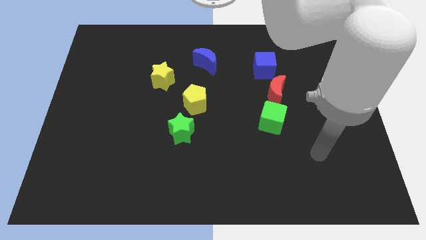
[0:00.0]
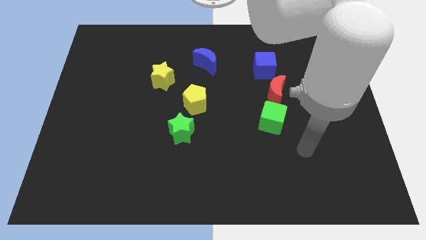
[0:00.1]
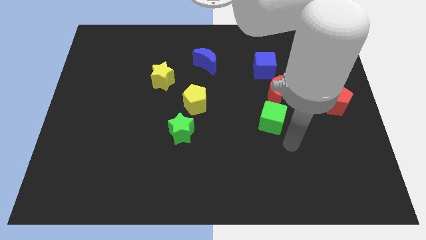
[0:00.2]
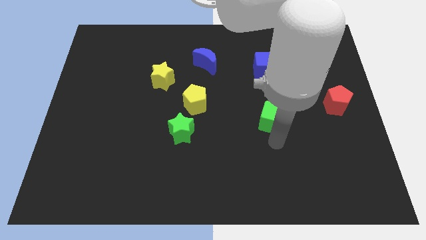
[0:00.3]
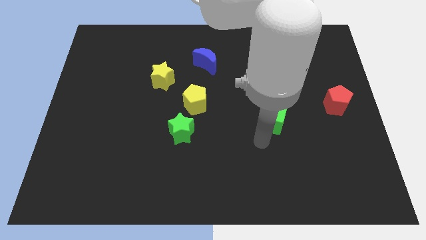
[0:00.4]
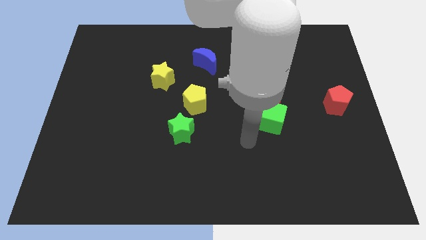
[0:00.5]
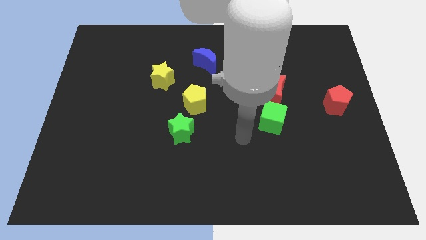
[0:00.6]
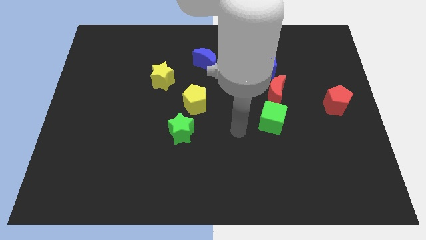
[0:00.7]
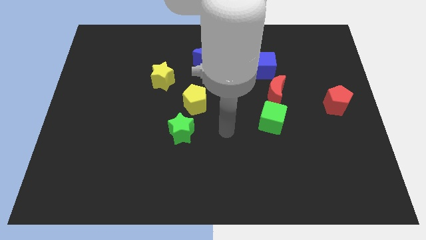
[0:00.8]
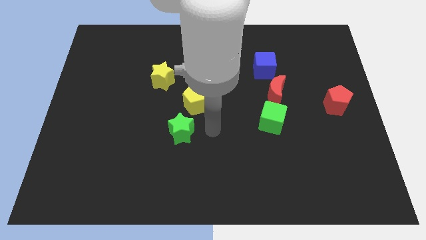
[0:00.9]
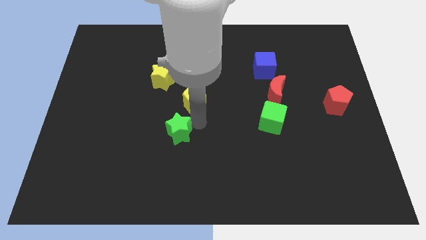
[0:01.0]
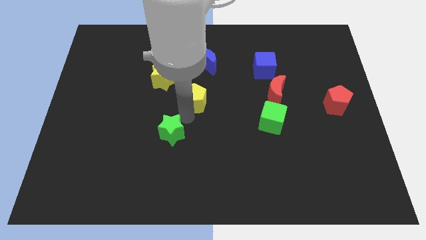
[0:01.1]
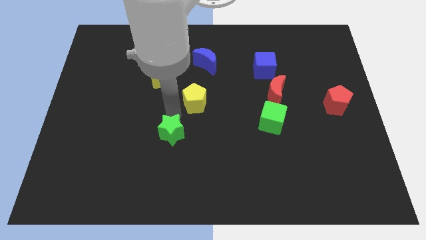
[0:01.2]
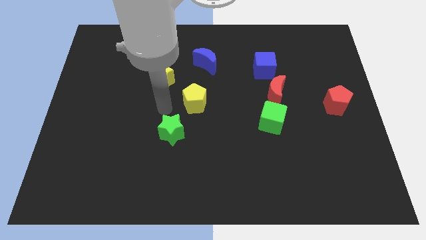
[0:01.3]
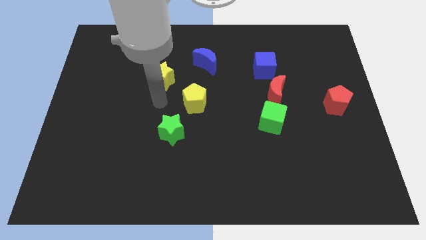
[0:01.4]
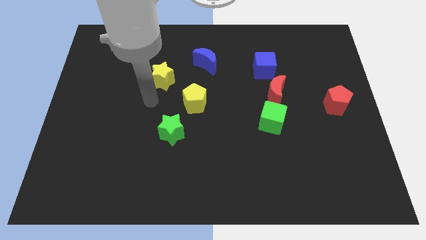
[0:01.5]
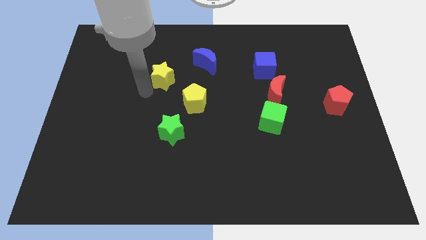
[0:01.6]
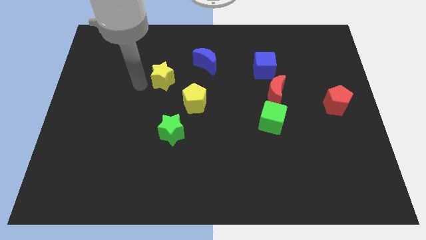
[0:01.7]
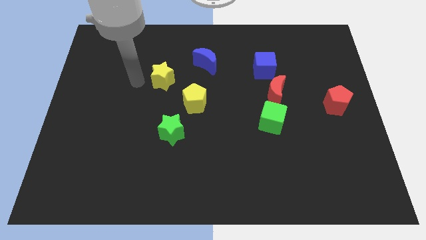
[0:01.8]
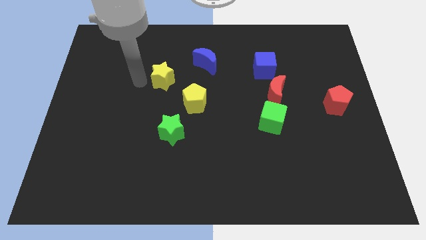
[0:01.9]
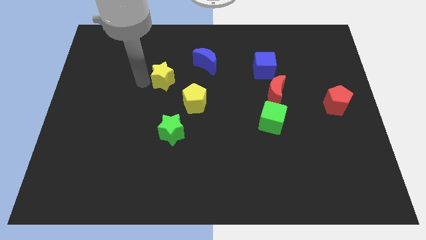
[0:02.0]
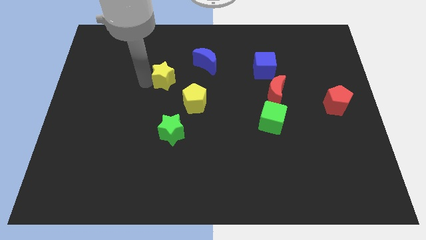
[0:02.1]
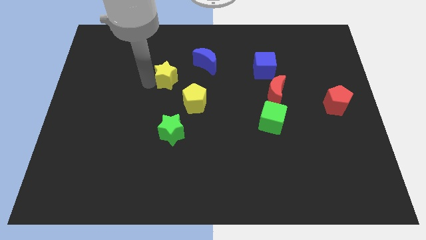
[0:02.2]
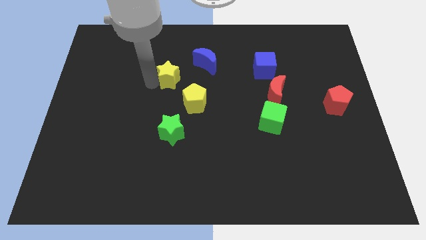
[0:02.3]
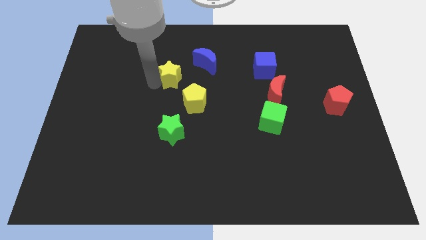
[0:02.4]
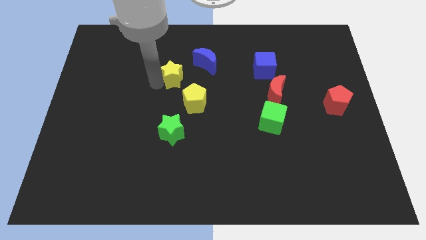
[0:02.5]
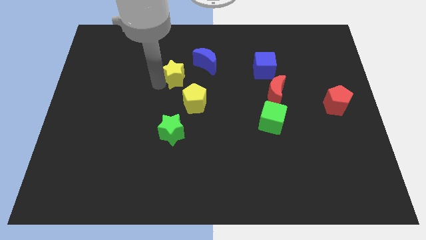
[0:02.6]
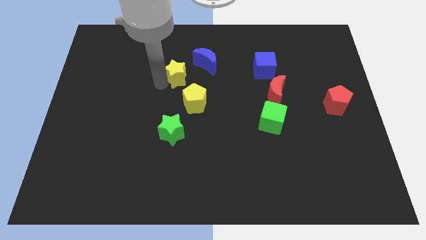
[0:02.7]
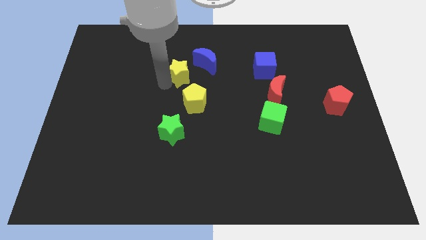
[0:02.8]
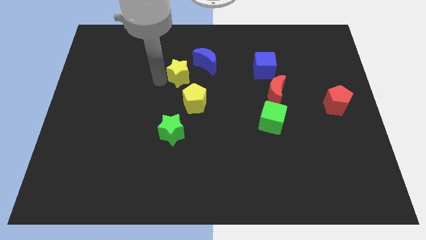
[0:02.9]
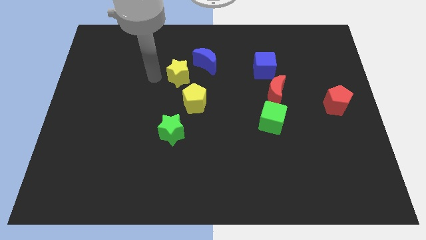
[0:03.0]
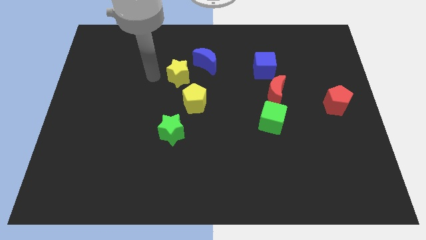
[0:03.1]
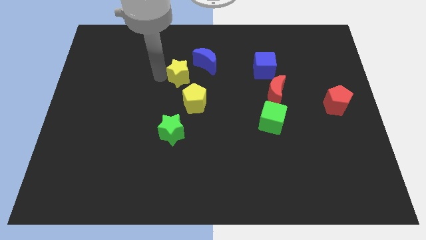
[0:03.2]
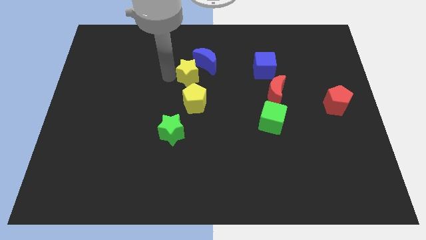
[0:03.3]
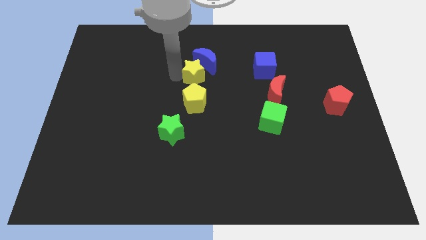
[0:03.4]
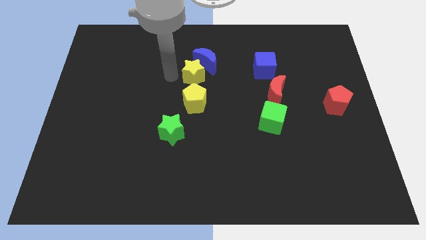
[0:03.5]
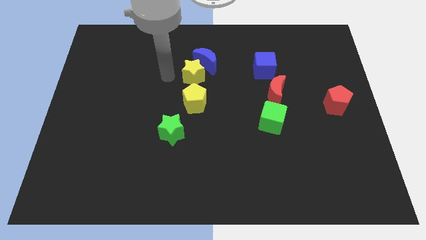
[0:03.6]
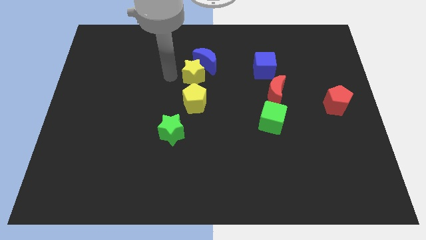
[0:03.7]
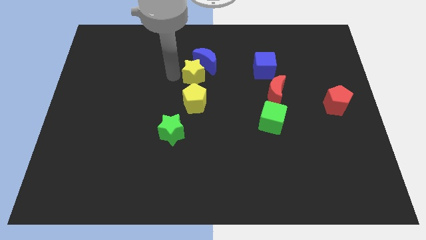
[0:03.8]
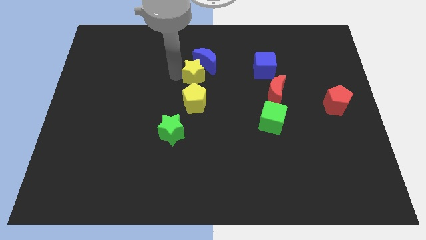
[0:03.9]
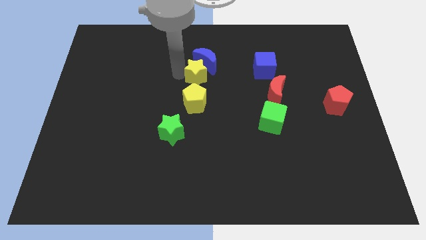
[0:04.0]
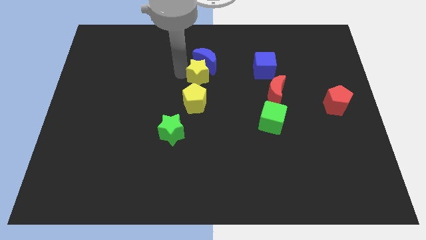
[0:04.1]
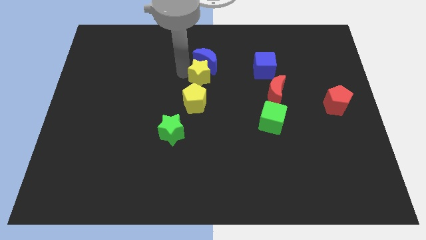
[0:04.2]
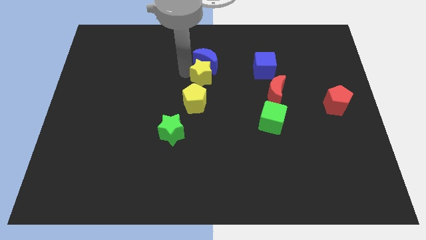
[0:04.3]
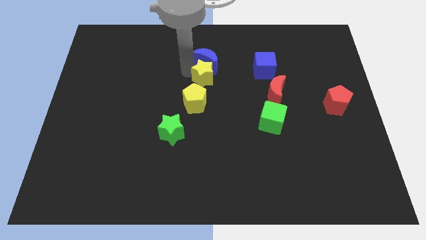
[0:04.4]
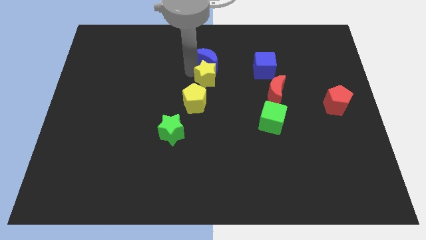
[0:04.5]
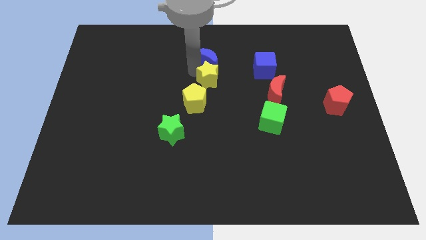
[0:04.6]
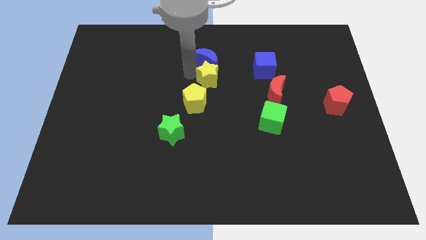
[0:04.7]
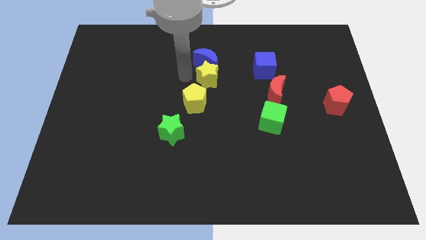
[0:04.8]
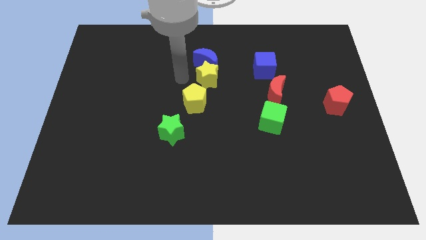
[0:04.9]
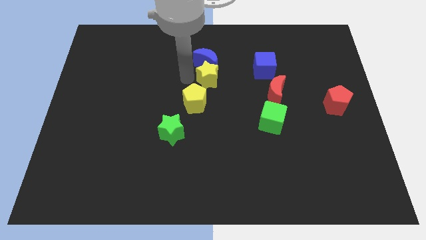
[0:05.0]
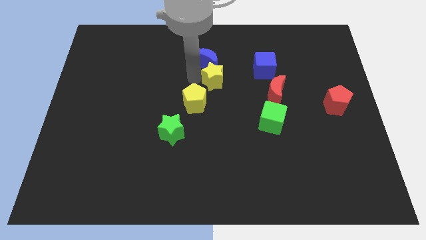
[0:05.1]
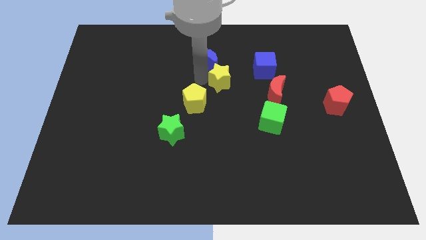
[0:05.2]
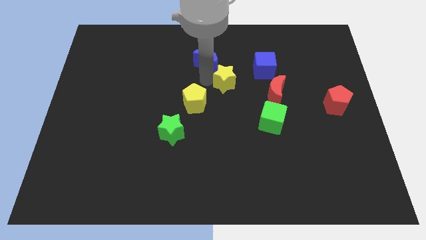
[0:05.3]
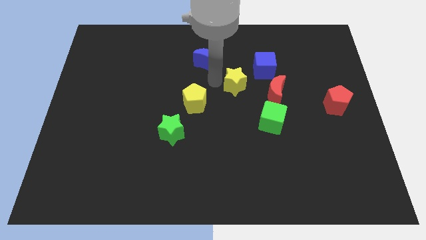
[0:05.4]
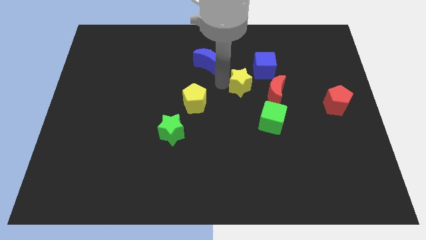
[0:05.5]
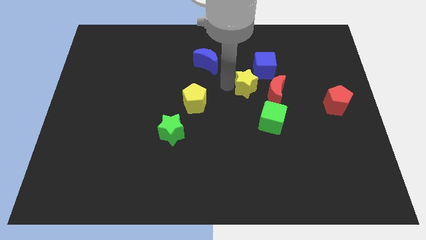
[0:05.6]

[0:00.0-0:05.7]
slide the yellow star to the right

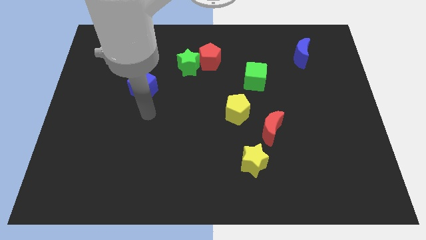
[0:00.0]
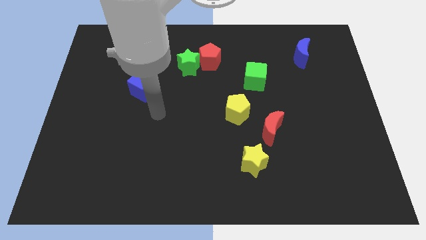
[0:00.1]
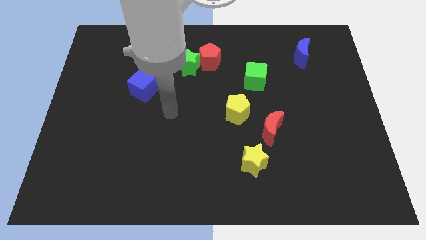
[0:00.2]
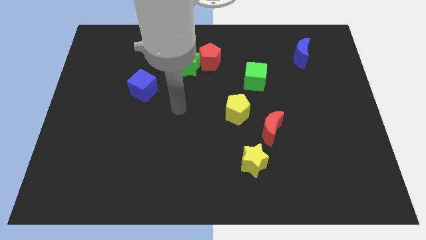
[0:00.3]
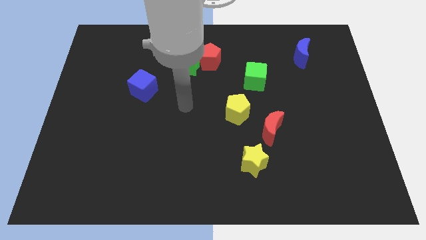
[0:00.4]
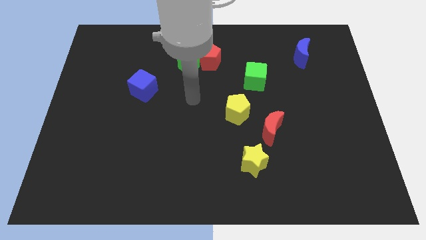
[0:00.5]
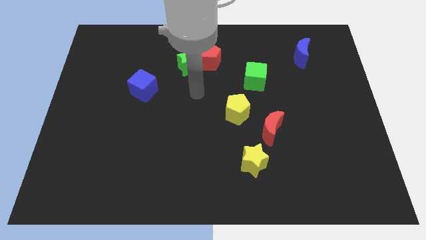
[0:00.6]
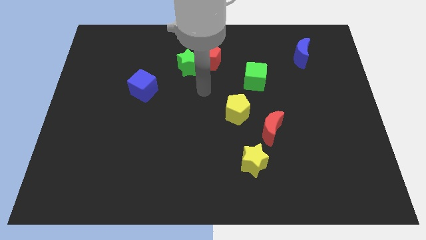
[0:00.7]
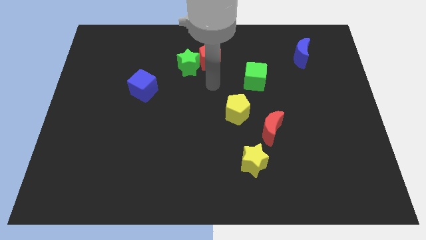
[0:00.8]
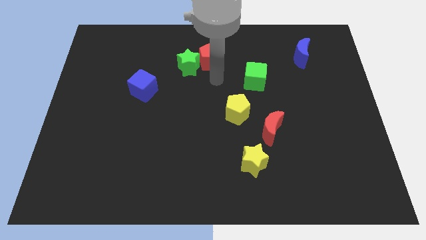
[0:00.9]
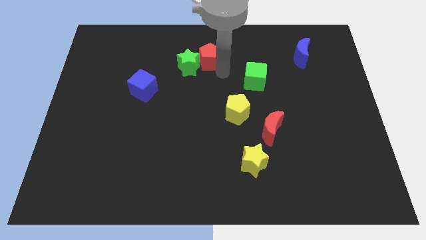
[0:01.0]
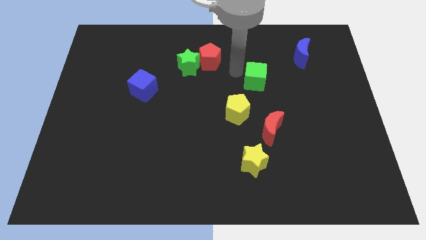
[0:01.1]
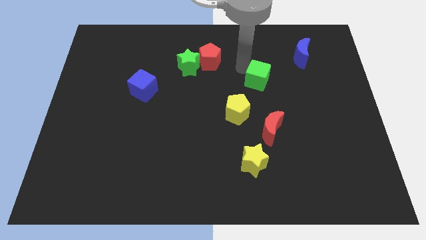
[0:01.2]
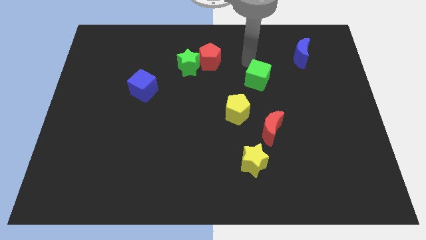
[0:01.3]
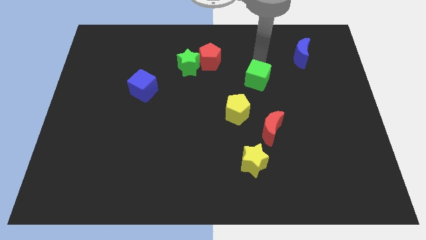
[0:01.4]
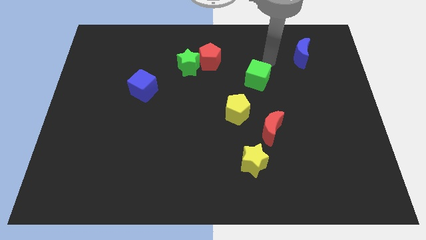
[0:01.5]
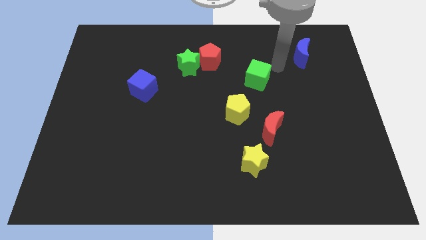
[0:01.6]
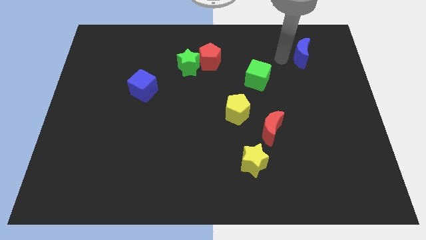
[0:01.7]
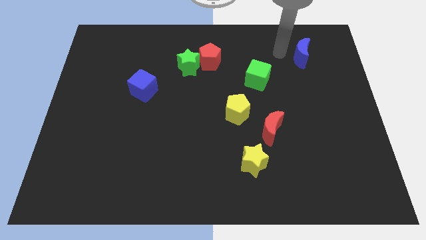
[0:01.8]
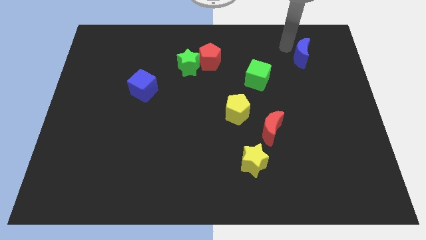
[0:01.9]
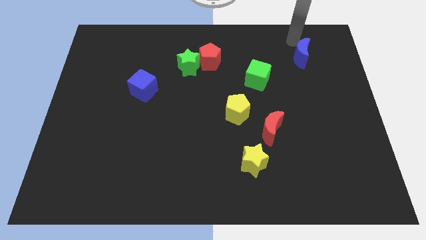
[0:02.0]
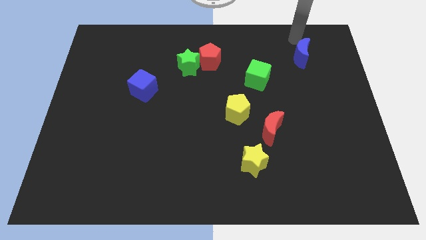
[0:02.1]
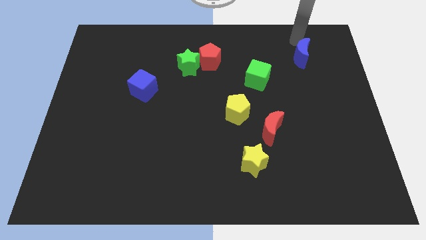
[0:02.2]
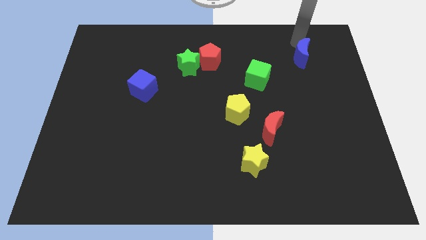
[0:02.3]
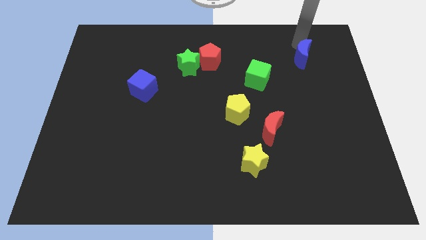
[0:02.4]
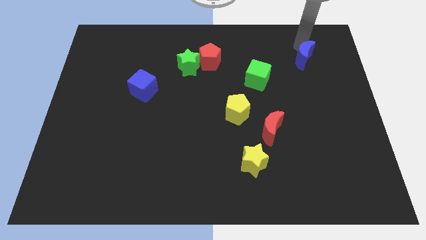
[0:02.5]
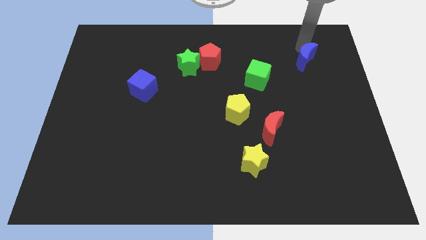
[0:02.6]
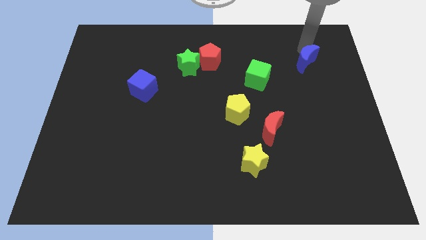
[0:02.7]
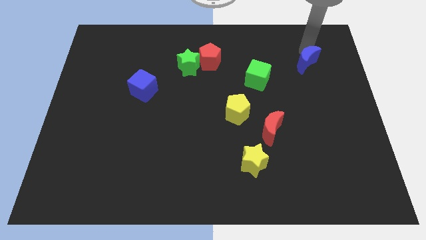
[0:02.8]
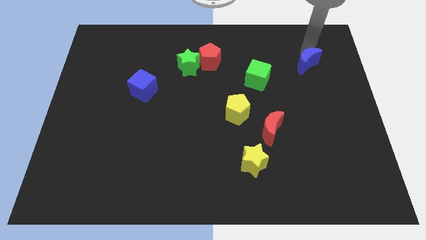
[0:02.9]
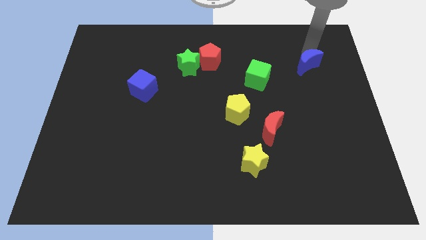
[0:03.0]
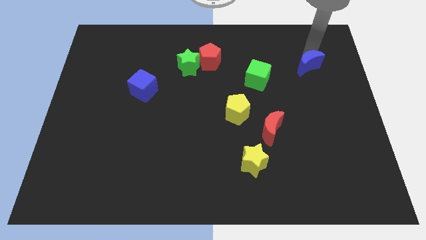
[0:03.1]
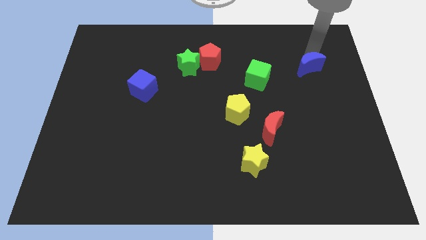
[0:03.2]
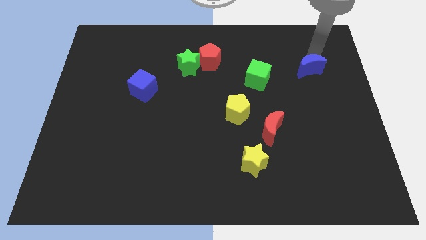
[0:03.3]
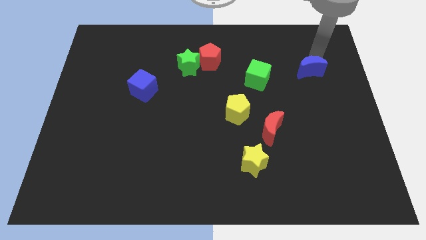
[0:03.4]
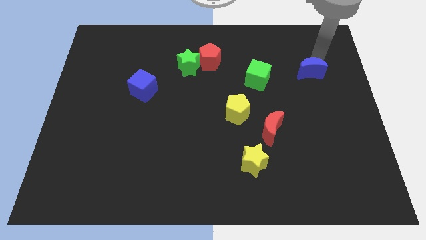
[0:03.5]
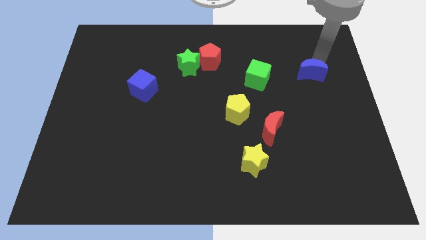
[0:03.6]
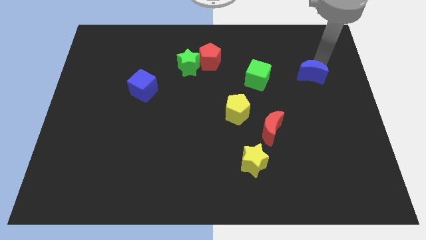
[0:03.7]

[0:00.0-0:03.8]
slightly push the blue moon downwards
